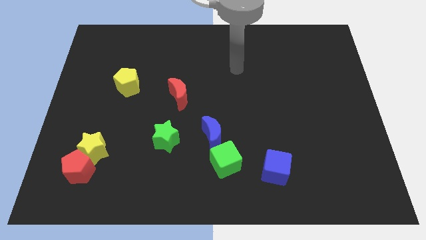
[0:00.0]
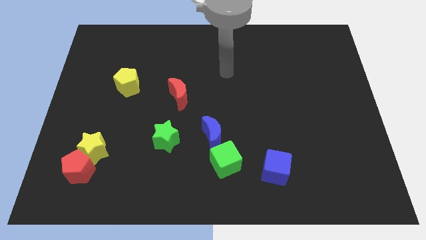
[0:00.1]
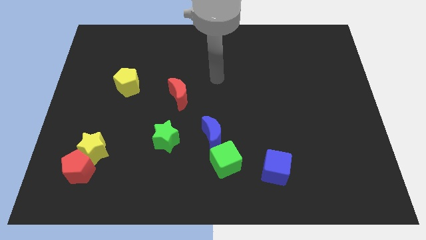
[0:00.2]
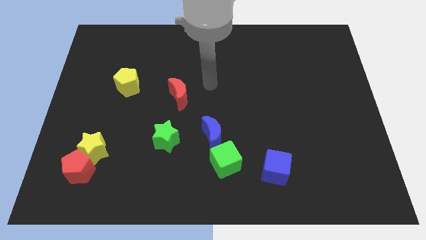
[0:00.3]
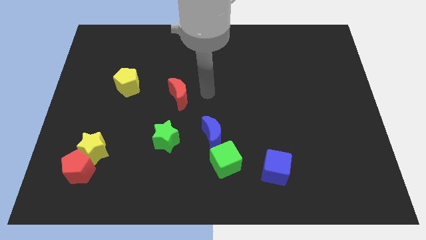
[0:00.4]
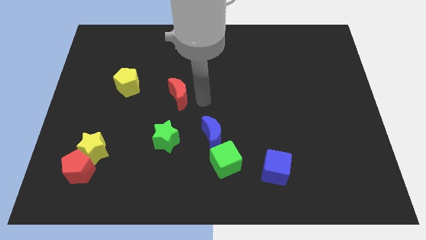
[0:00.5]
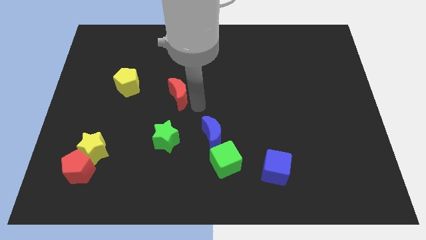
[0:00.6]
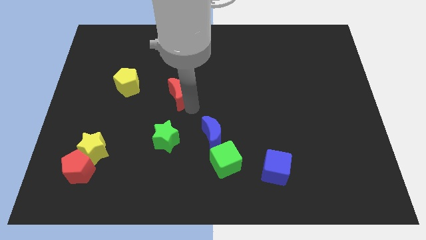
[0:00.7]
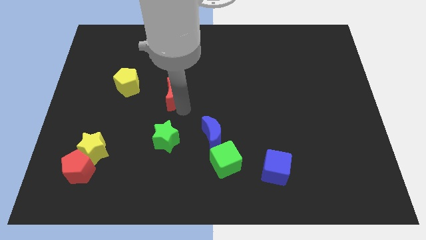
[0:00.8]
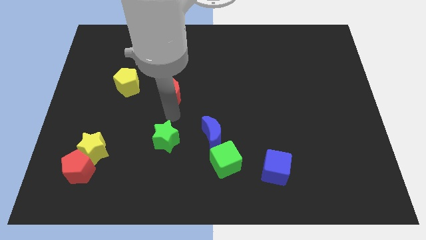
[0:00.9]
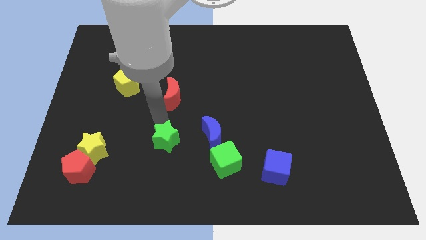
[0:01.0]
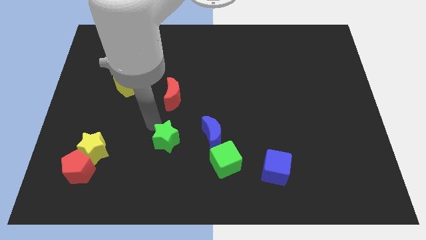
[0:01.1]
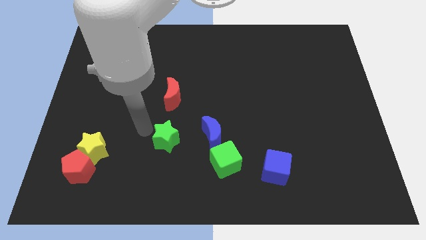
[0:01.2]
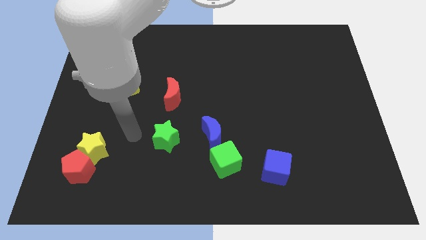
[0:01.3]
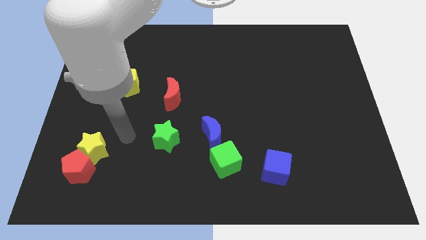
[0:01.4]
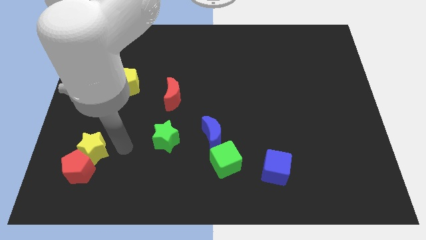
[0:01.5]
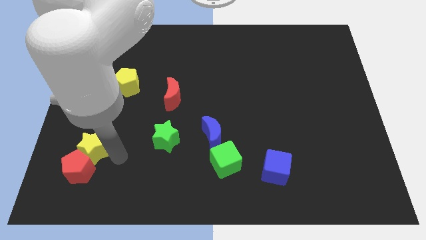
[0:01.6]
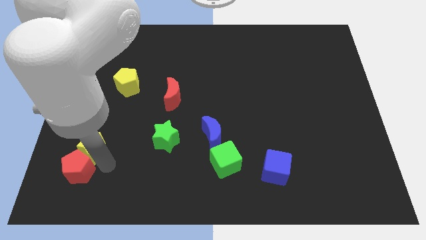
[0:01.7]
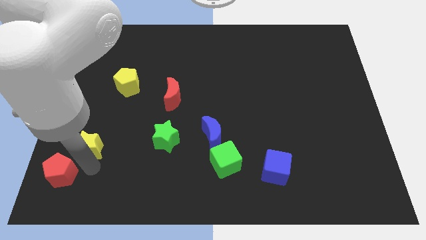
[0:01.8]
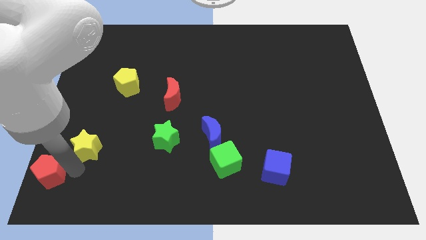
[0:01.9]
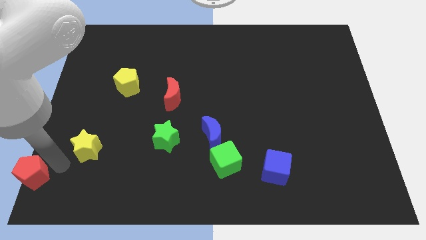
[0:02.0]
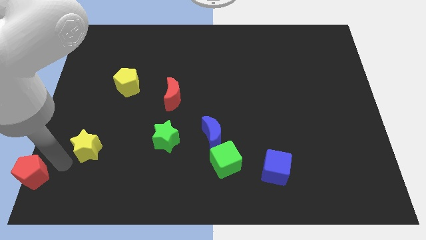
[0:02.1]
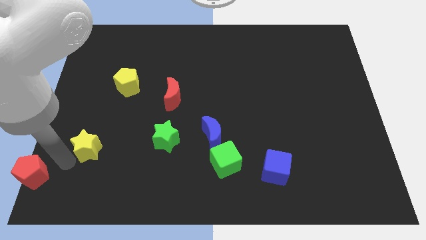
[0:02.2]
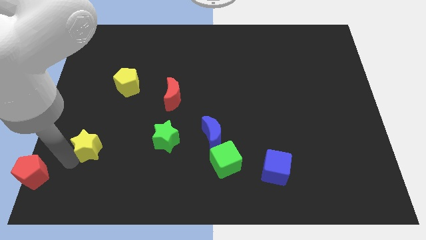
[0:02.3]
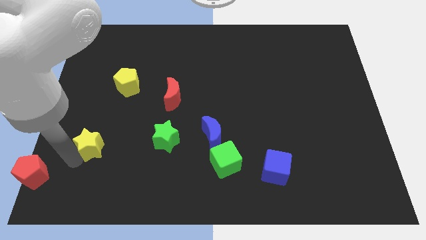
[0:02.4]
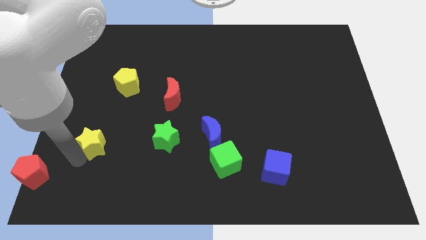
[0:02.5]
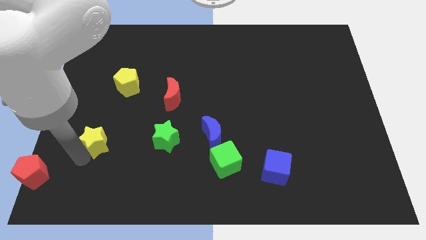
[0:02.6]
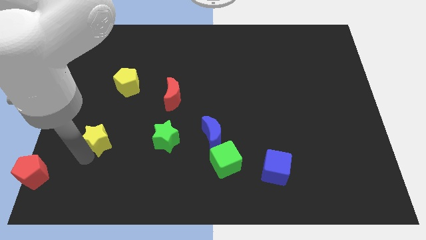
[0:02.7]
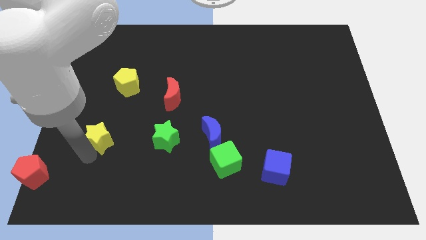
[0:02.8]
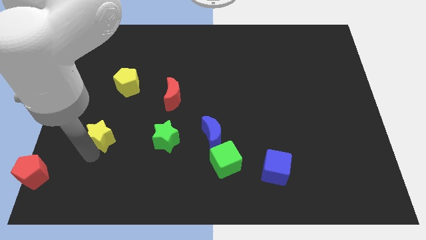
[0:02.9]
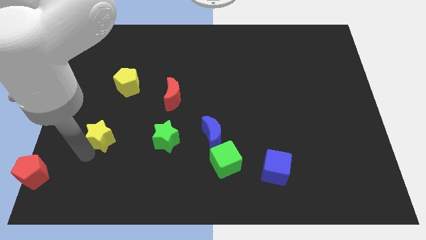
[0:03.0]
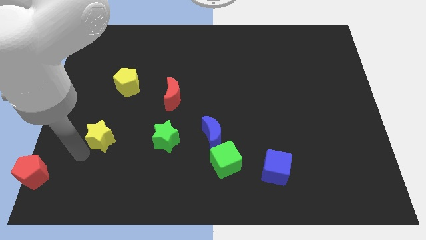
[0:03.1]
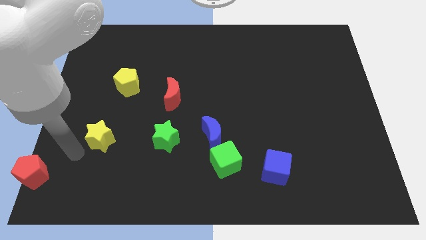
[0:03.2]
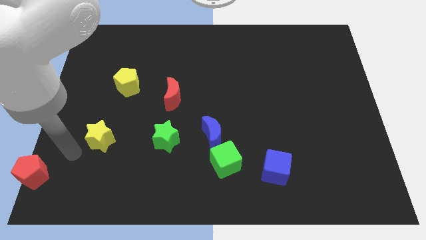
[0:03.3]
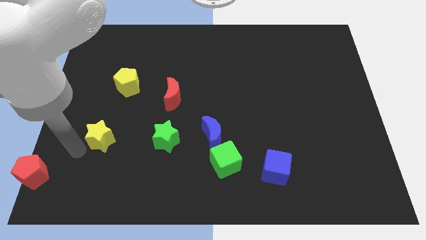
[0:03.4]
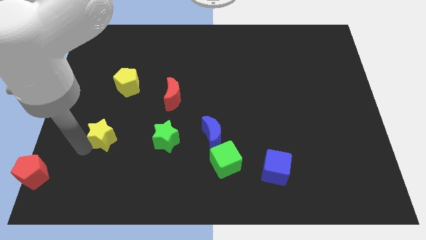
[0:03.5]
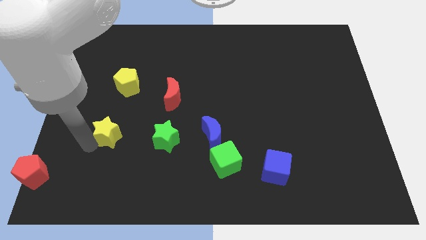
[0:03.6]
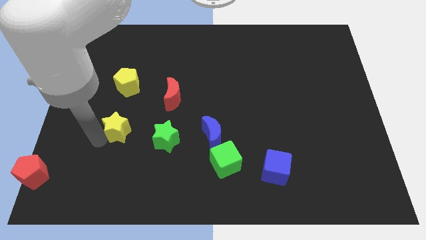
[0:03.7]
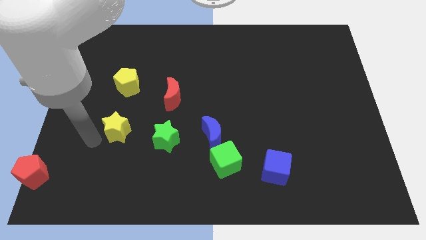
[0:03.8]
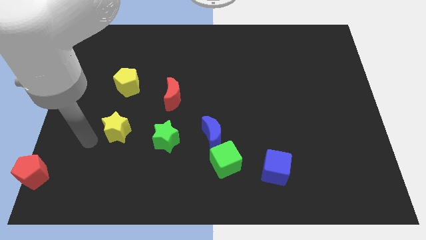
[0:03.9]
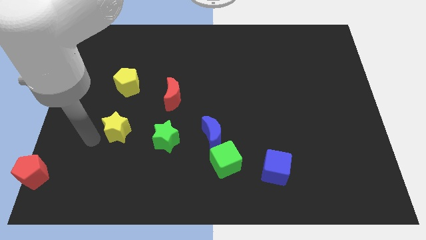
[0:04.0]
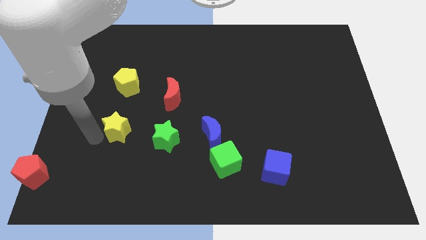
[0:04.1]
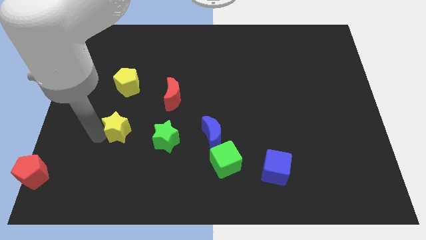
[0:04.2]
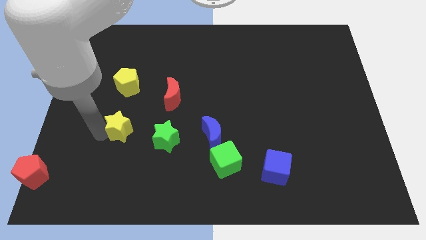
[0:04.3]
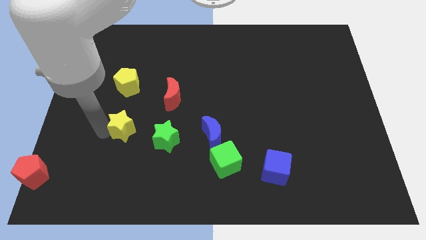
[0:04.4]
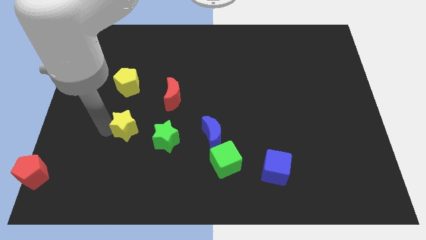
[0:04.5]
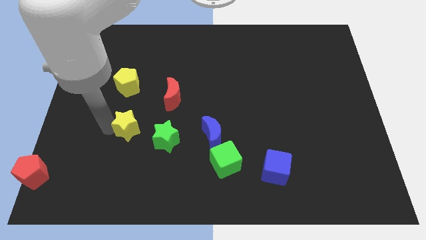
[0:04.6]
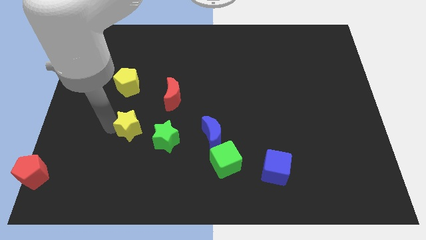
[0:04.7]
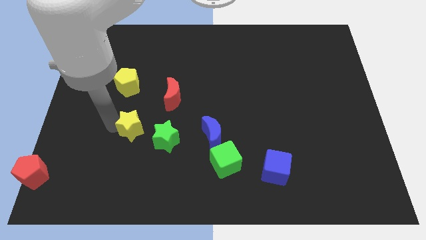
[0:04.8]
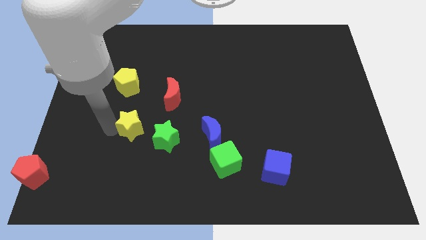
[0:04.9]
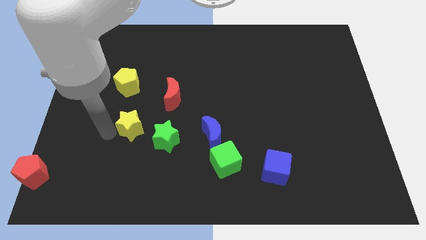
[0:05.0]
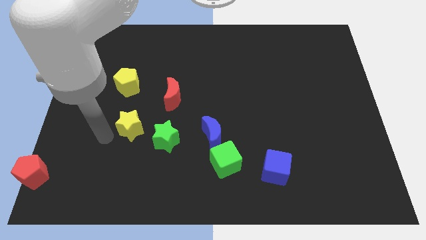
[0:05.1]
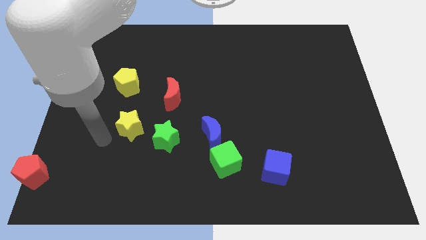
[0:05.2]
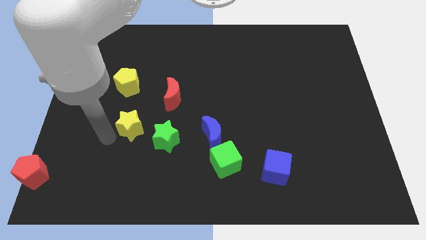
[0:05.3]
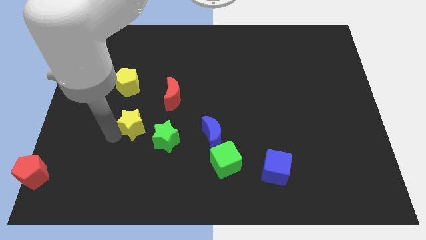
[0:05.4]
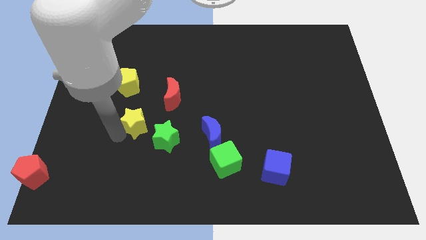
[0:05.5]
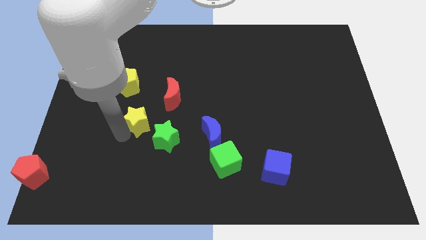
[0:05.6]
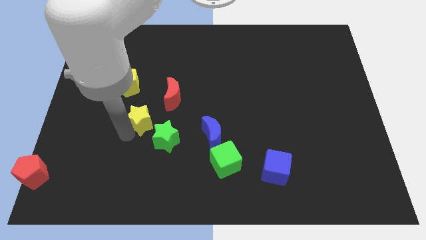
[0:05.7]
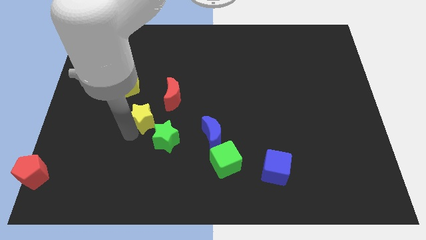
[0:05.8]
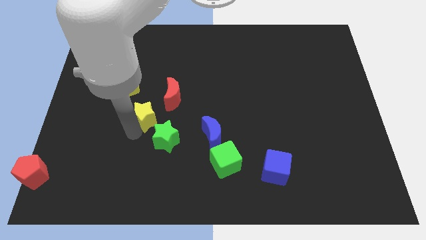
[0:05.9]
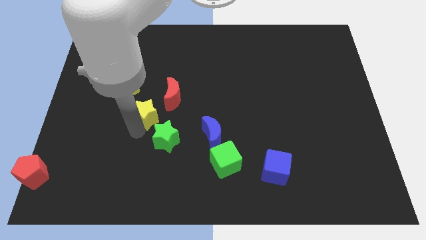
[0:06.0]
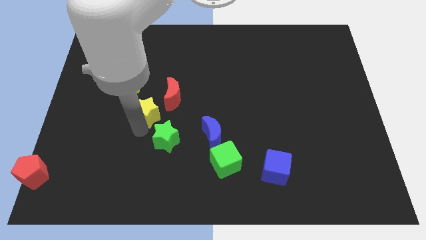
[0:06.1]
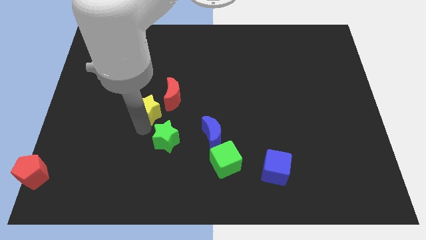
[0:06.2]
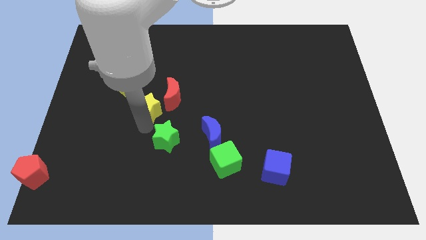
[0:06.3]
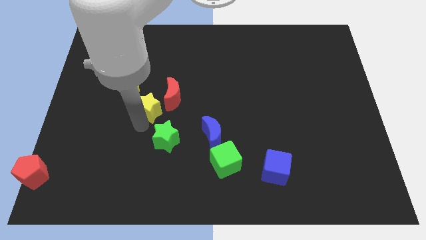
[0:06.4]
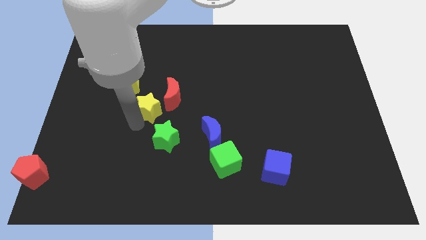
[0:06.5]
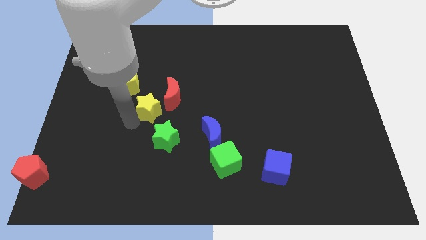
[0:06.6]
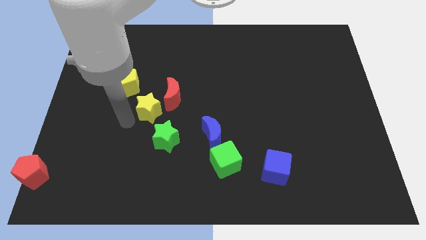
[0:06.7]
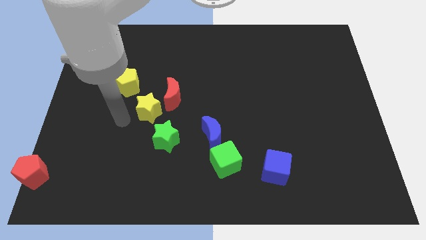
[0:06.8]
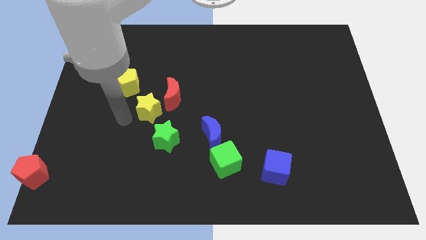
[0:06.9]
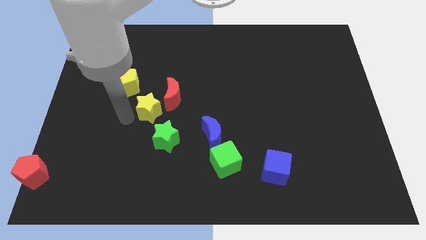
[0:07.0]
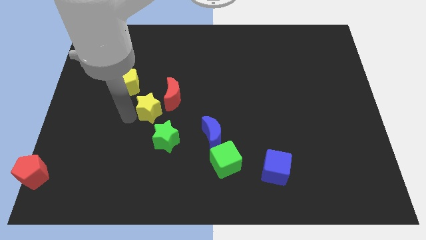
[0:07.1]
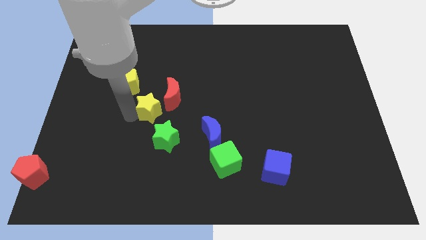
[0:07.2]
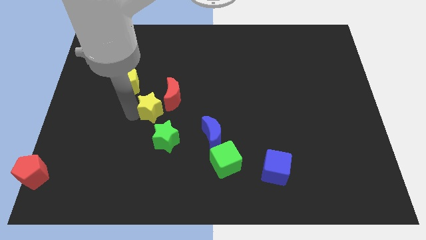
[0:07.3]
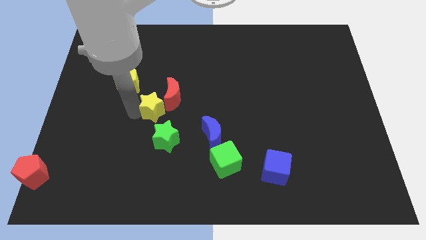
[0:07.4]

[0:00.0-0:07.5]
put the yellow star close to the red moon
